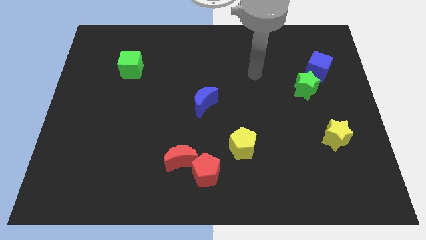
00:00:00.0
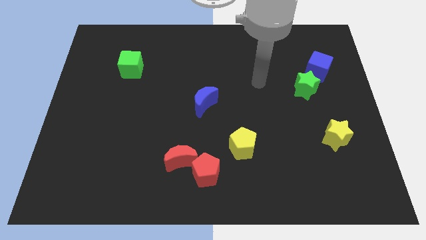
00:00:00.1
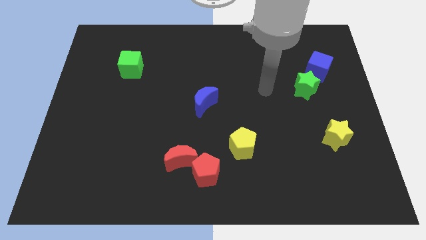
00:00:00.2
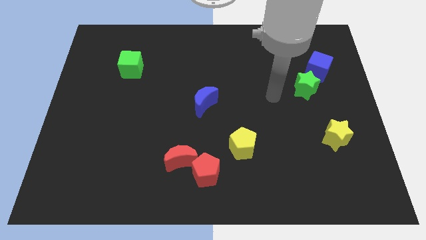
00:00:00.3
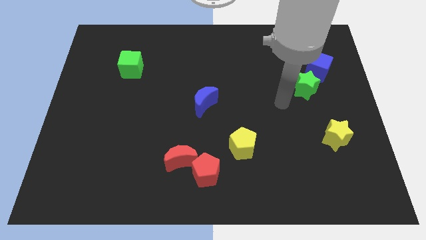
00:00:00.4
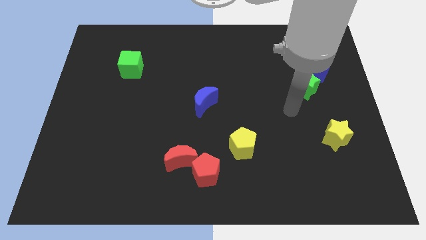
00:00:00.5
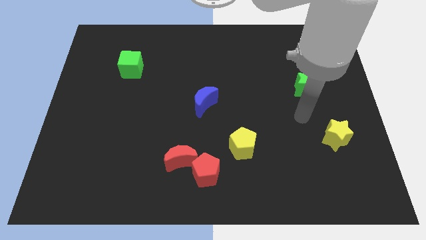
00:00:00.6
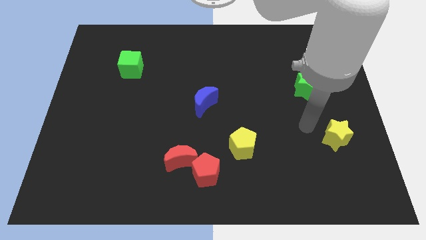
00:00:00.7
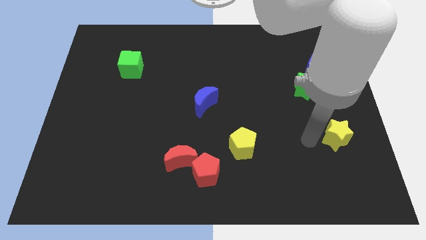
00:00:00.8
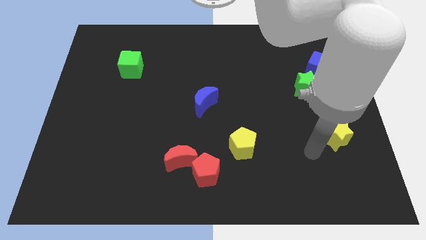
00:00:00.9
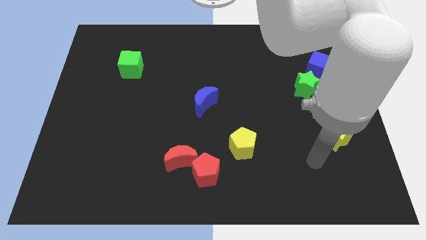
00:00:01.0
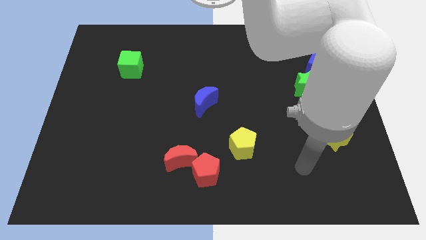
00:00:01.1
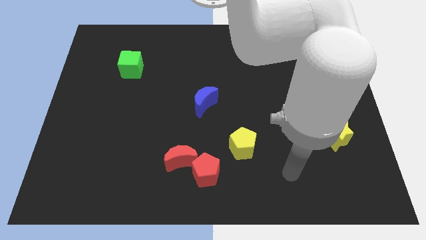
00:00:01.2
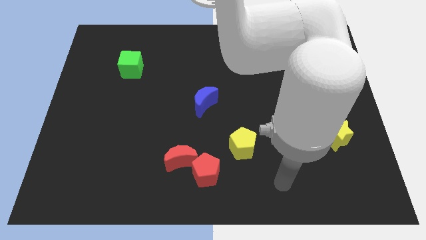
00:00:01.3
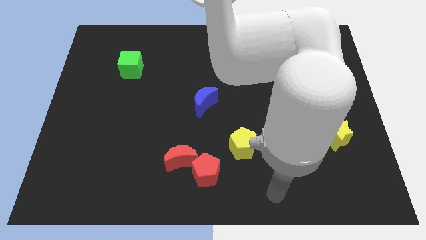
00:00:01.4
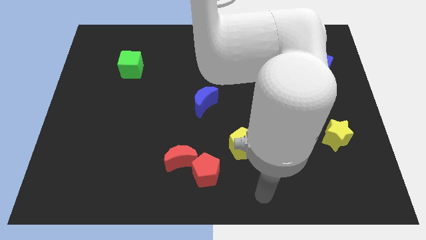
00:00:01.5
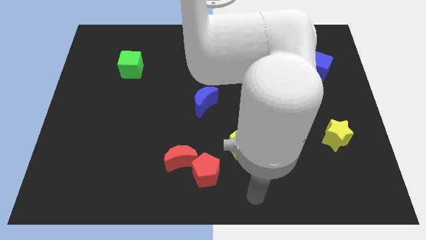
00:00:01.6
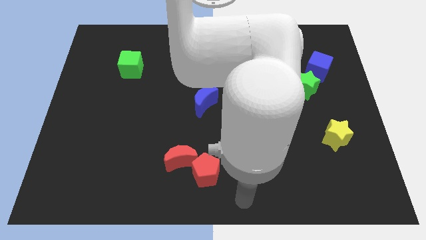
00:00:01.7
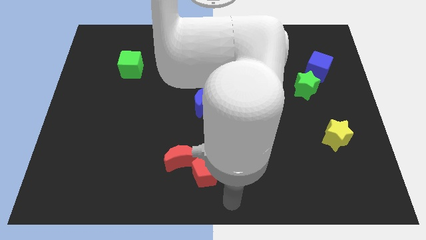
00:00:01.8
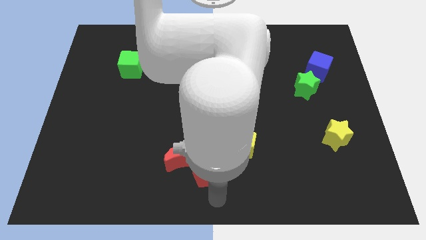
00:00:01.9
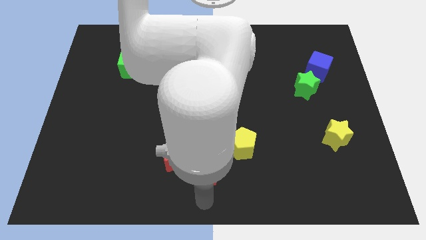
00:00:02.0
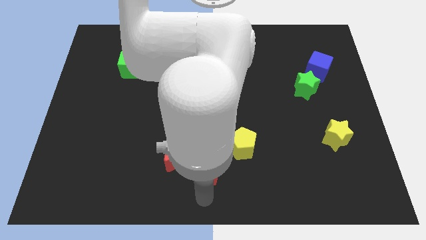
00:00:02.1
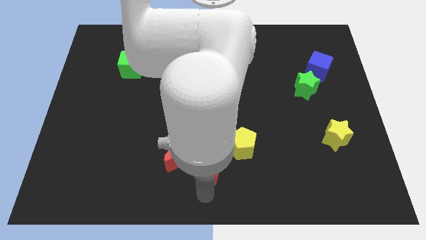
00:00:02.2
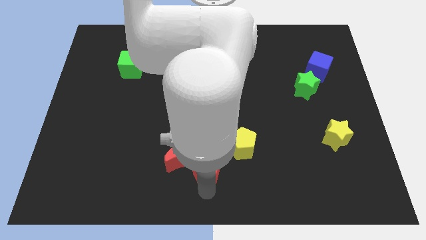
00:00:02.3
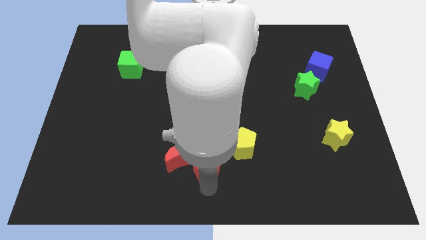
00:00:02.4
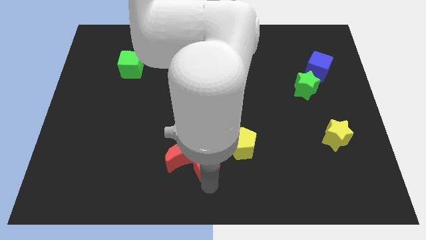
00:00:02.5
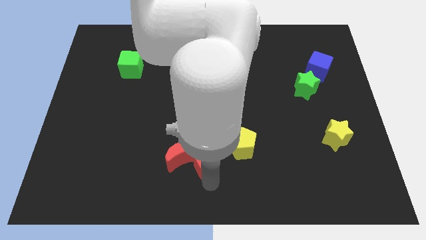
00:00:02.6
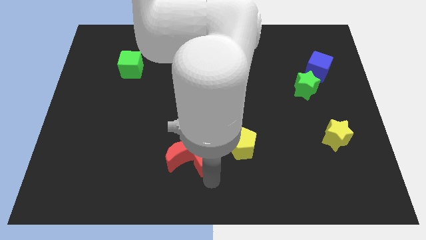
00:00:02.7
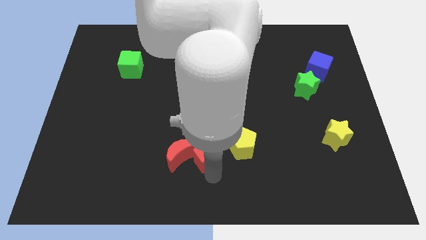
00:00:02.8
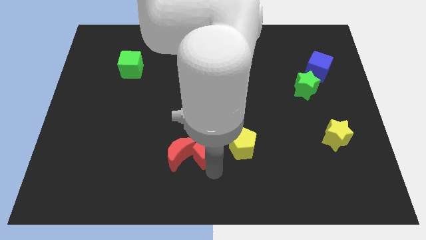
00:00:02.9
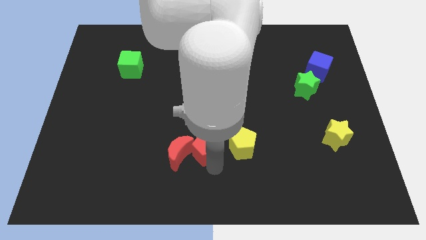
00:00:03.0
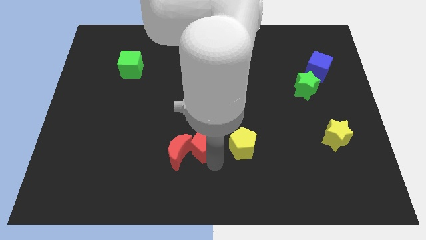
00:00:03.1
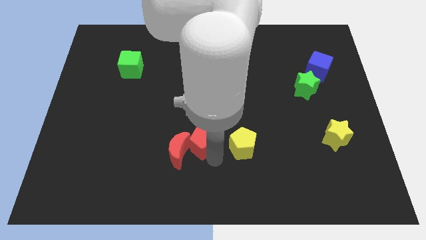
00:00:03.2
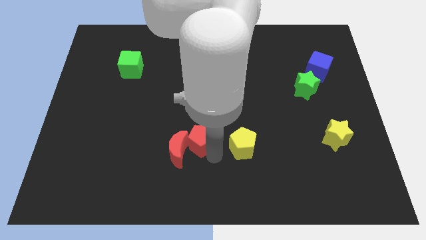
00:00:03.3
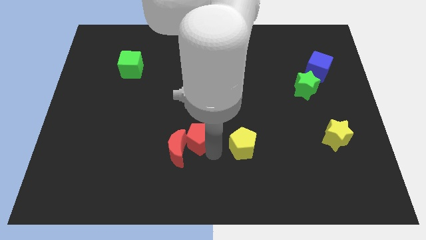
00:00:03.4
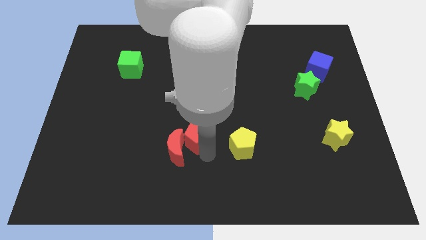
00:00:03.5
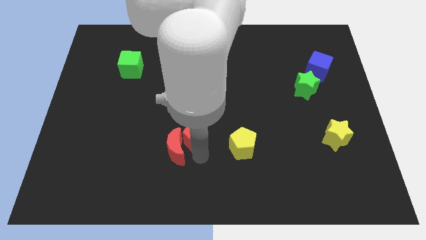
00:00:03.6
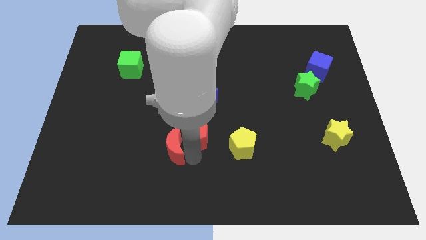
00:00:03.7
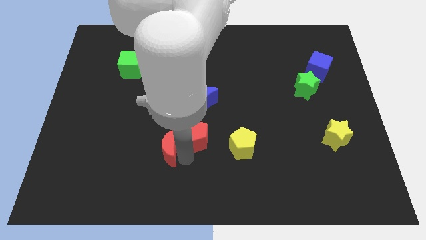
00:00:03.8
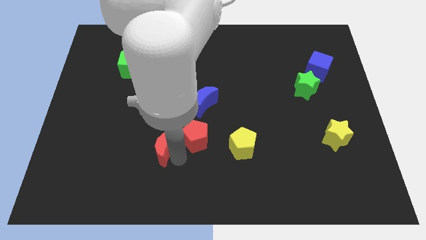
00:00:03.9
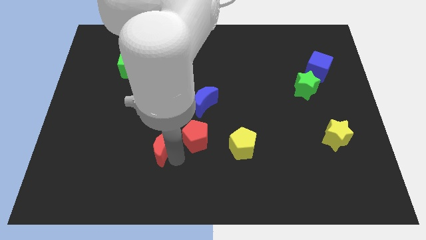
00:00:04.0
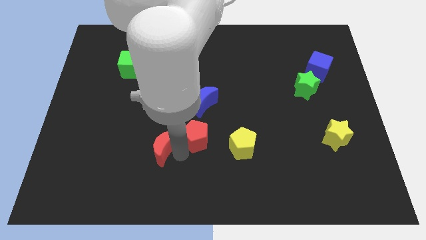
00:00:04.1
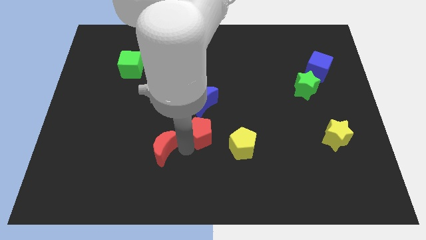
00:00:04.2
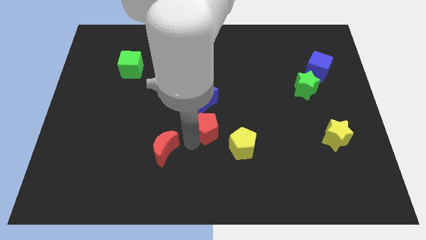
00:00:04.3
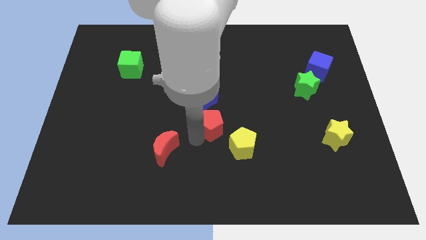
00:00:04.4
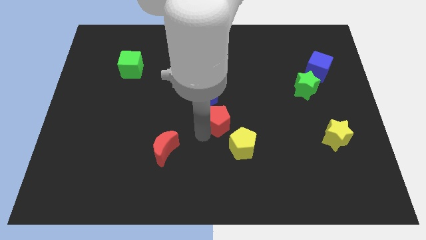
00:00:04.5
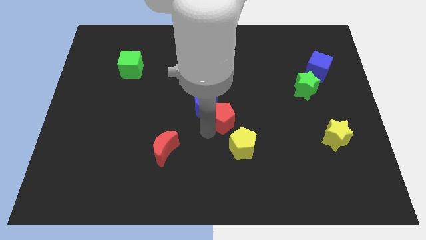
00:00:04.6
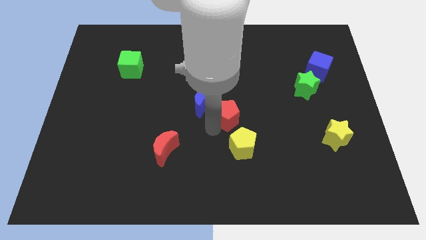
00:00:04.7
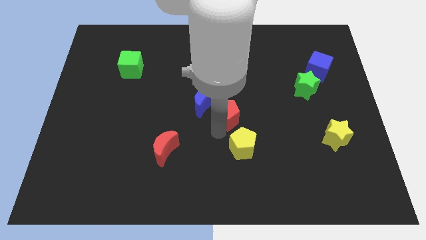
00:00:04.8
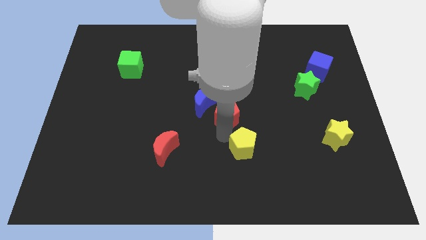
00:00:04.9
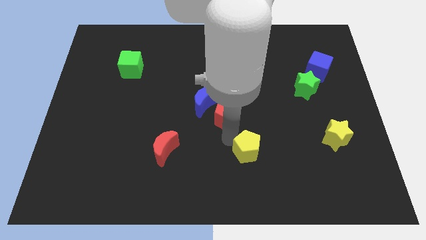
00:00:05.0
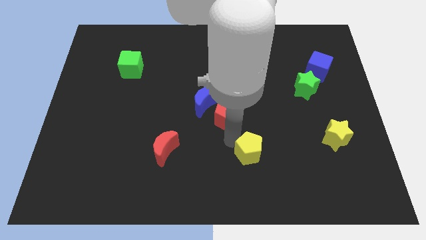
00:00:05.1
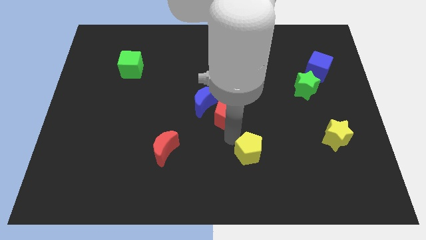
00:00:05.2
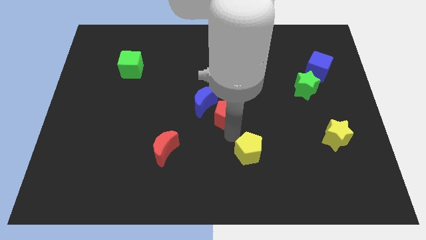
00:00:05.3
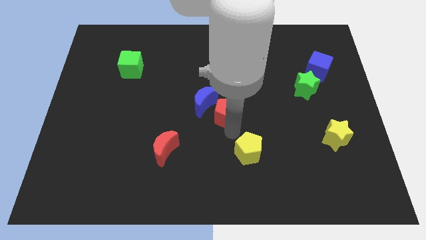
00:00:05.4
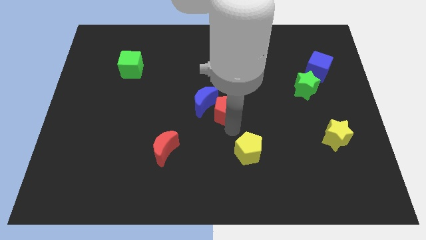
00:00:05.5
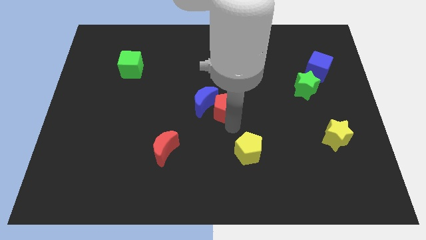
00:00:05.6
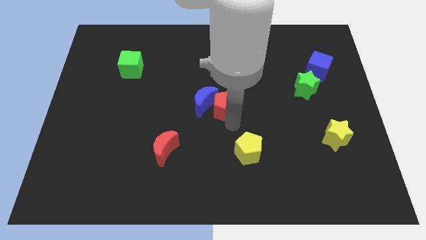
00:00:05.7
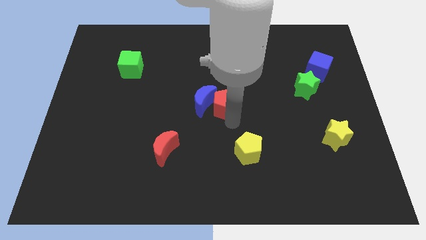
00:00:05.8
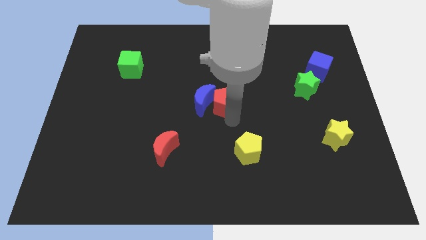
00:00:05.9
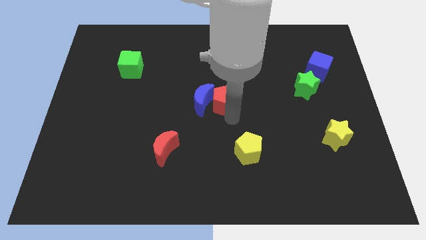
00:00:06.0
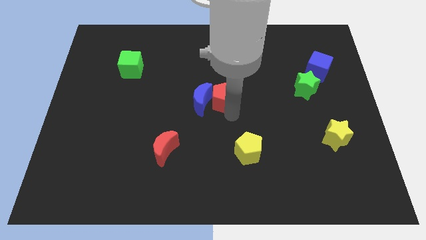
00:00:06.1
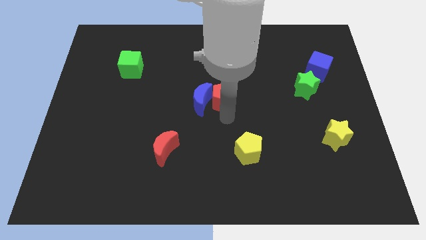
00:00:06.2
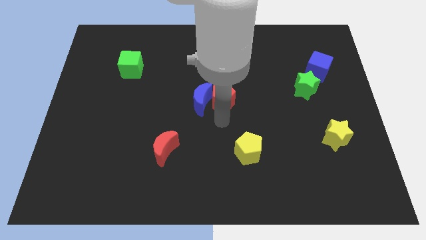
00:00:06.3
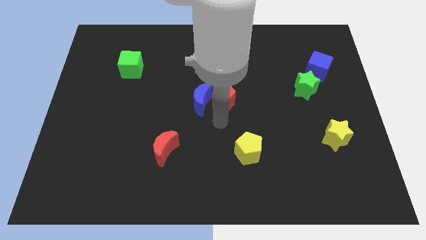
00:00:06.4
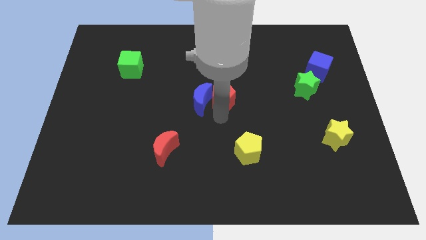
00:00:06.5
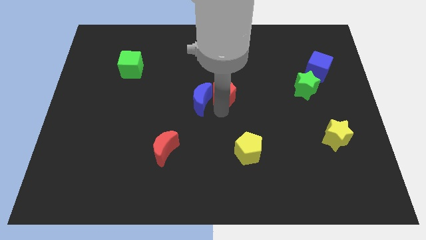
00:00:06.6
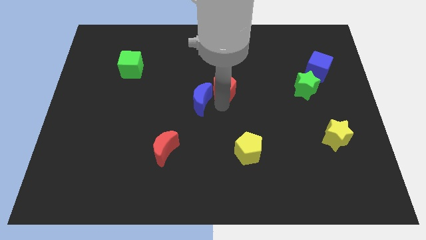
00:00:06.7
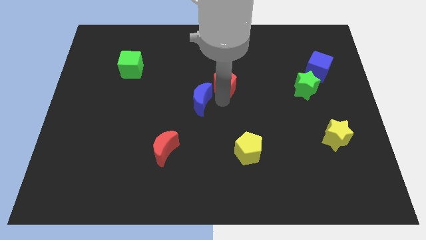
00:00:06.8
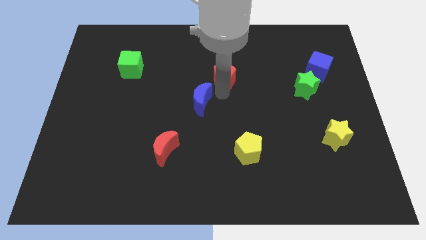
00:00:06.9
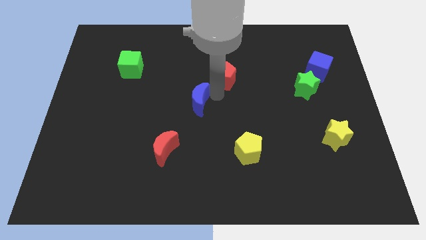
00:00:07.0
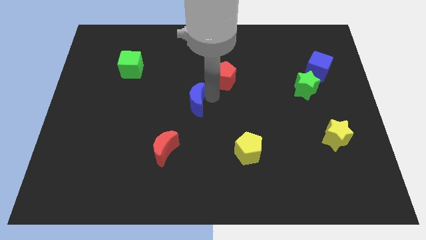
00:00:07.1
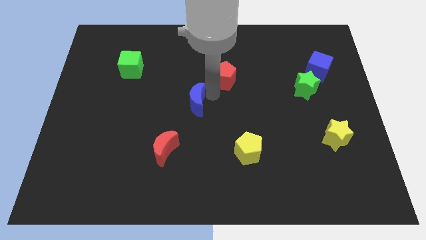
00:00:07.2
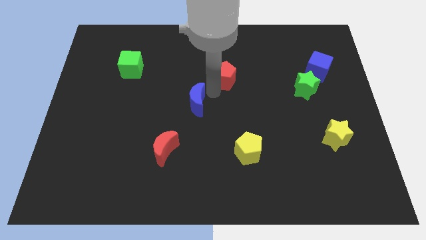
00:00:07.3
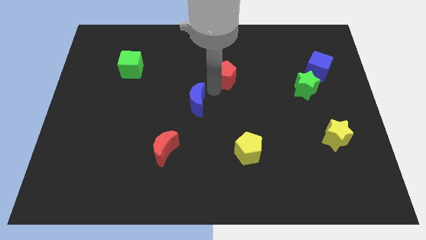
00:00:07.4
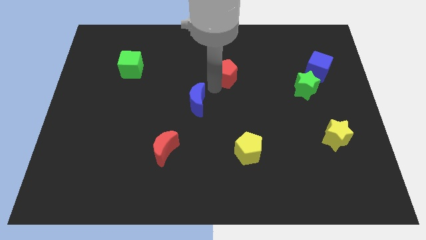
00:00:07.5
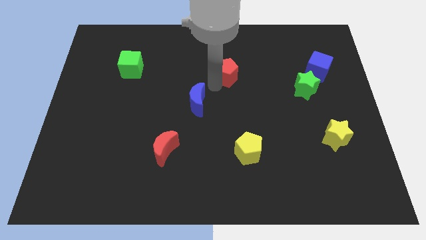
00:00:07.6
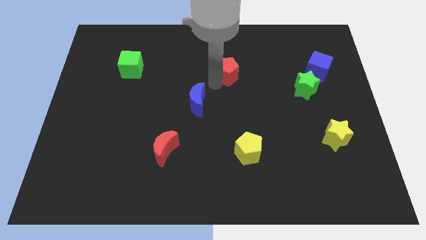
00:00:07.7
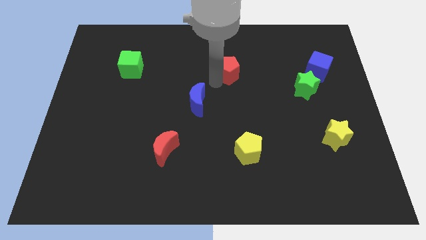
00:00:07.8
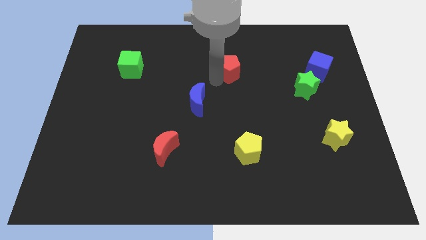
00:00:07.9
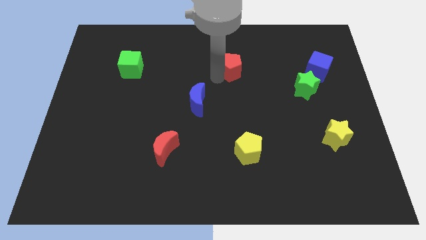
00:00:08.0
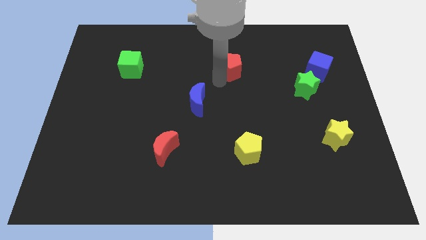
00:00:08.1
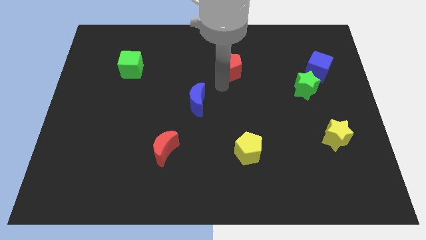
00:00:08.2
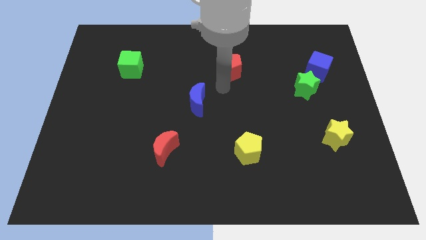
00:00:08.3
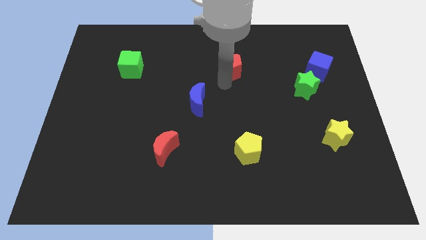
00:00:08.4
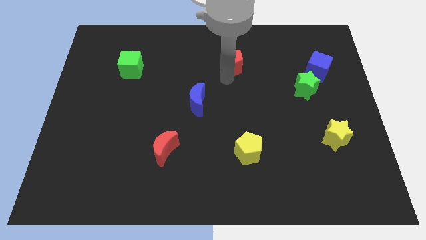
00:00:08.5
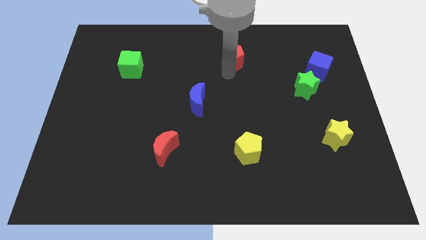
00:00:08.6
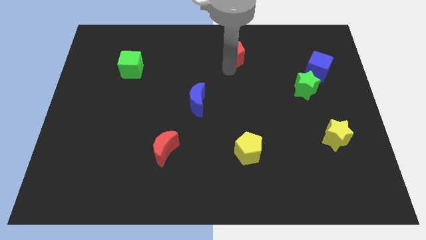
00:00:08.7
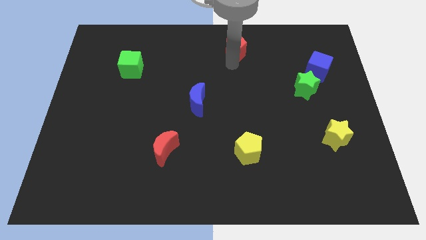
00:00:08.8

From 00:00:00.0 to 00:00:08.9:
slide the red pentagon to the top
